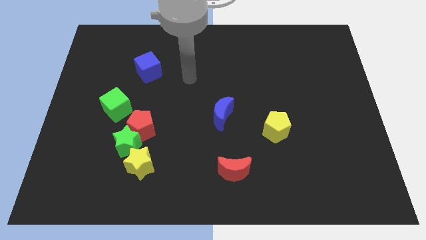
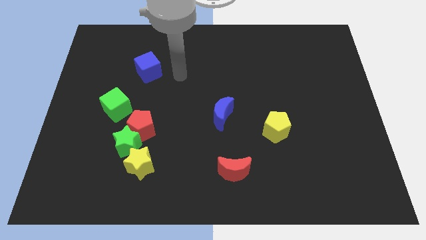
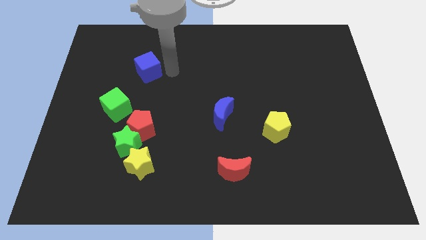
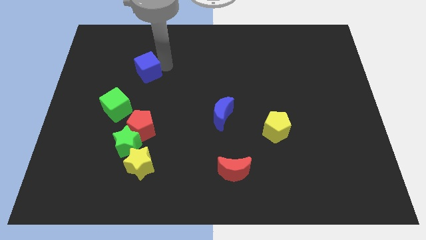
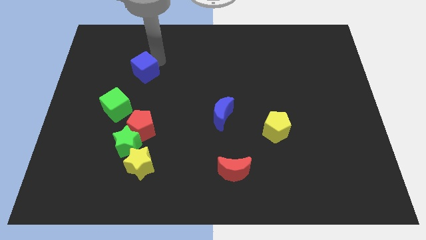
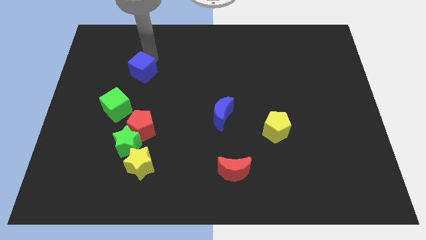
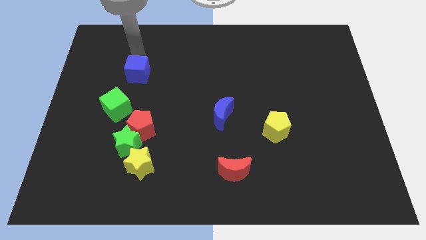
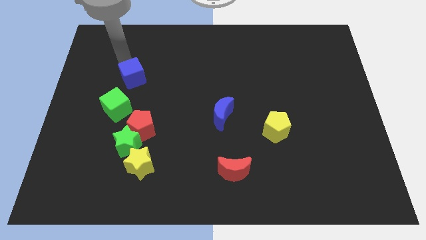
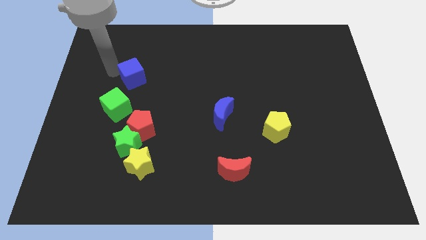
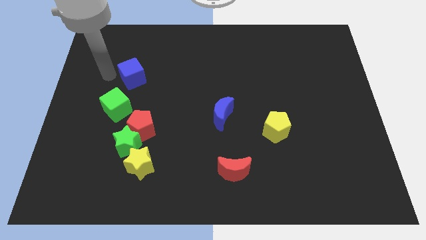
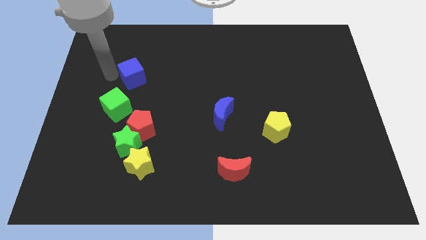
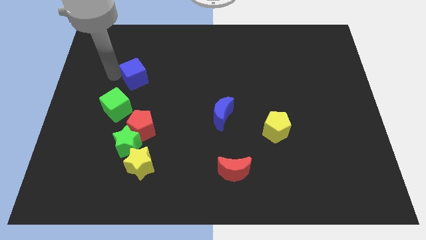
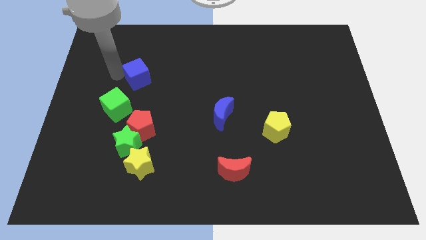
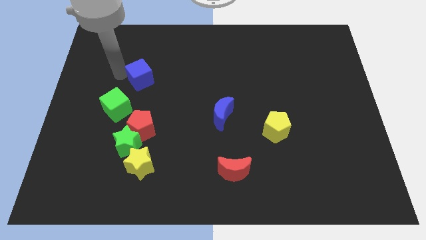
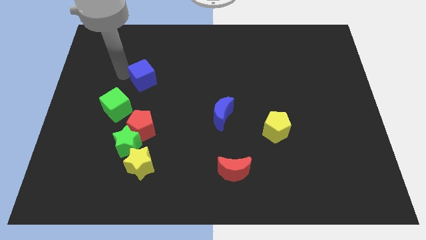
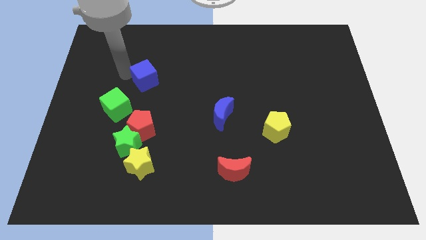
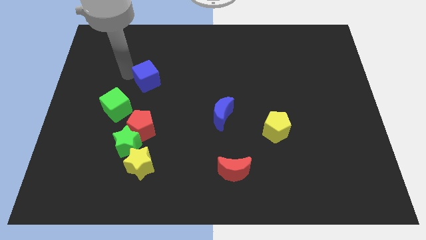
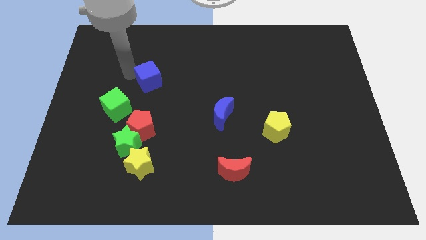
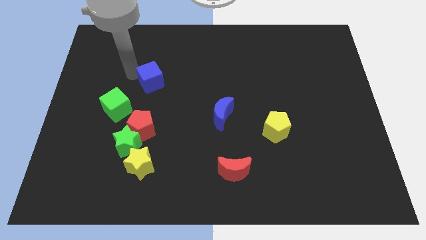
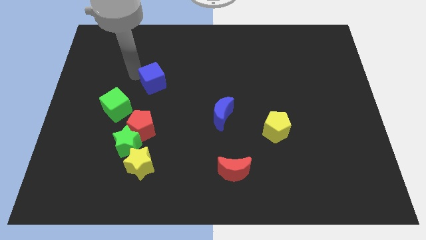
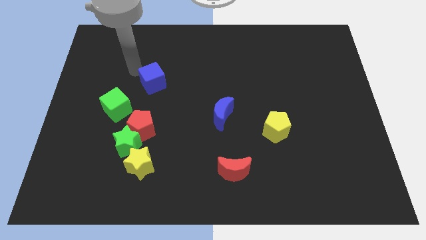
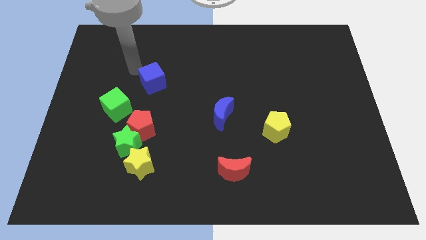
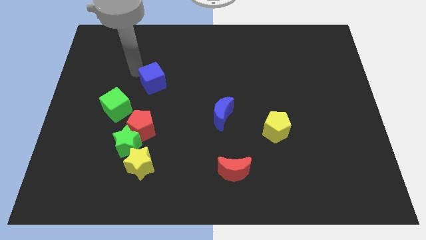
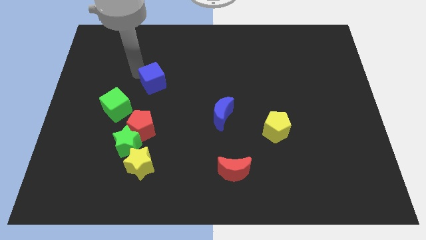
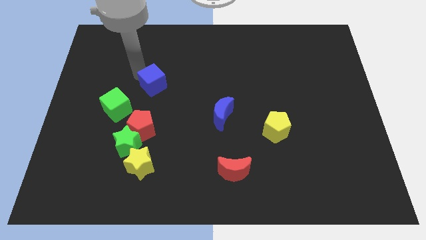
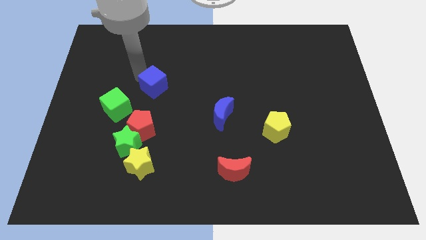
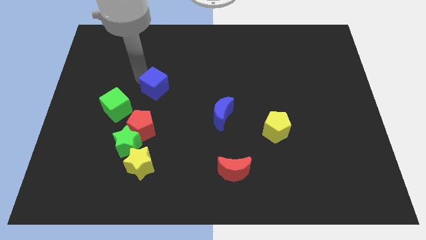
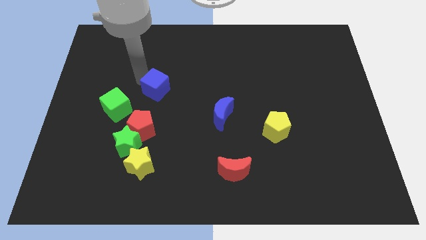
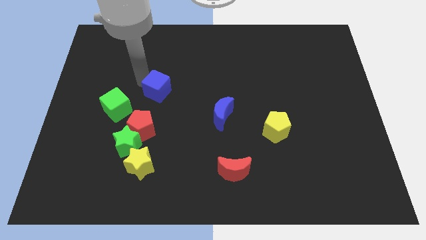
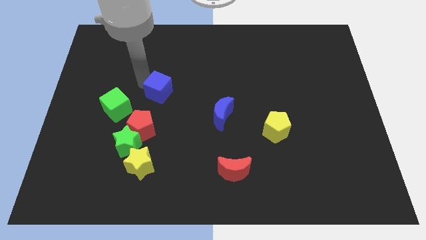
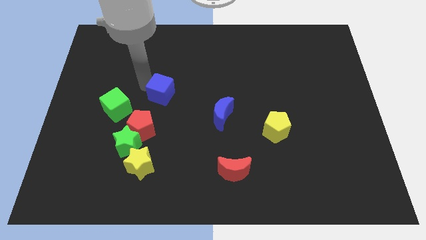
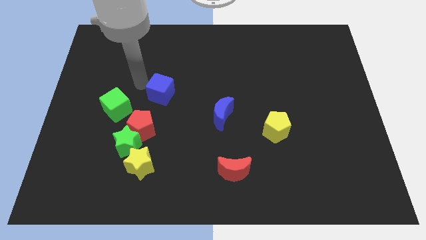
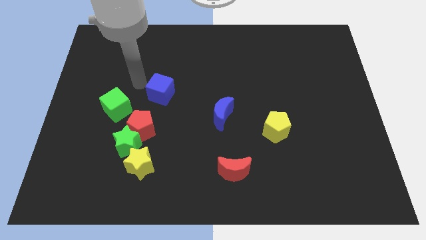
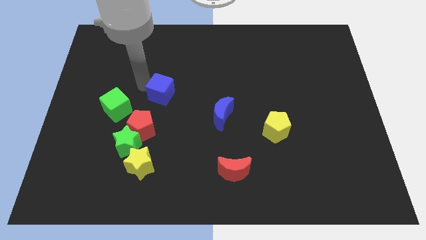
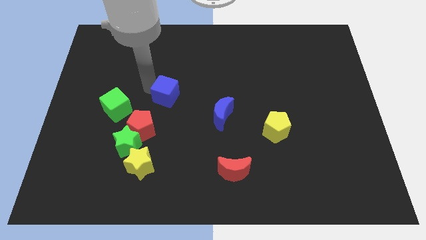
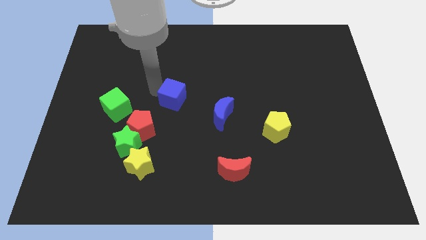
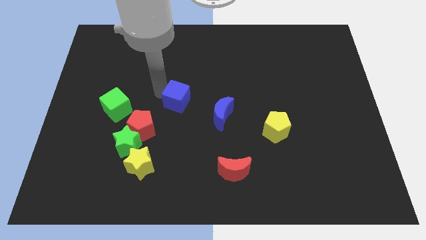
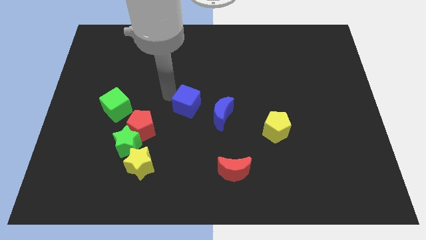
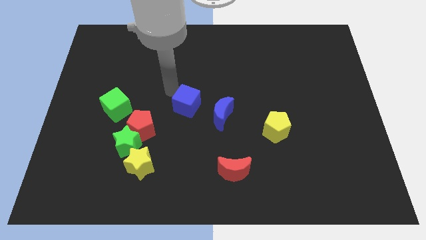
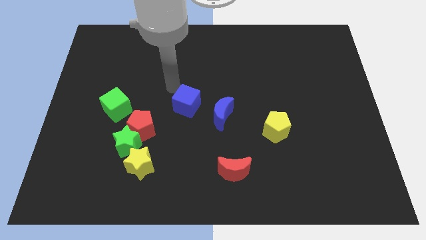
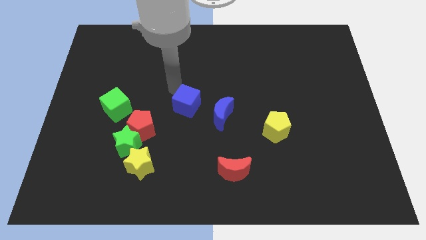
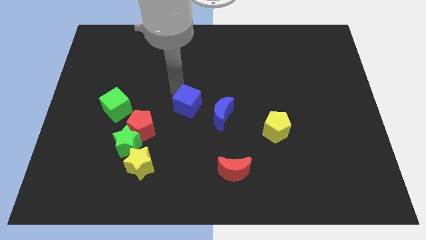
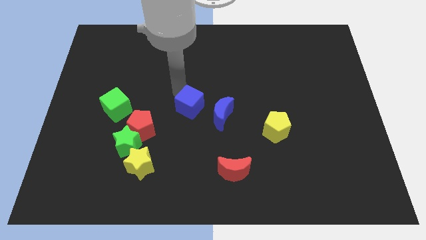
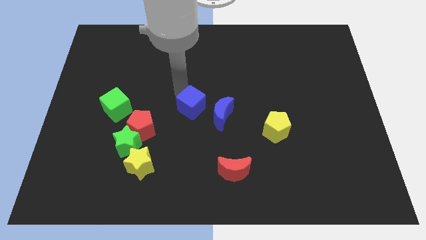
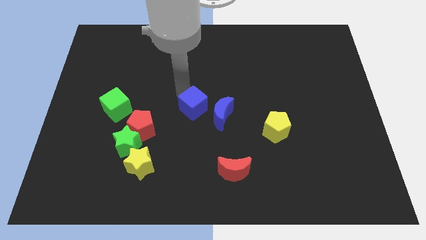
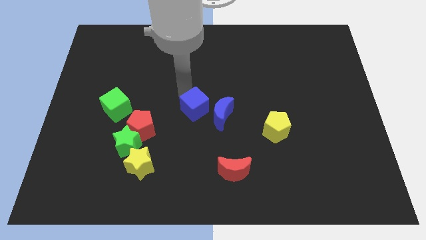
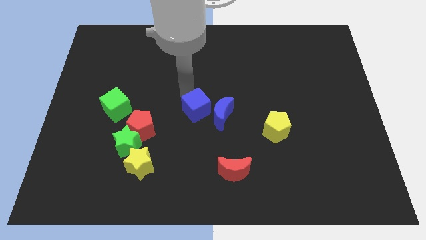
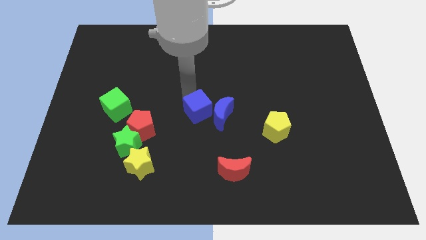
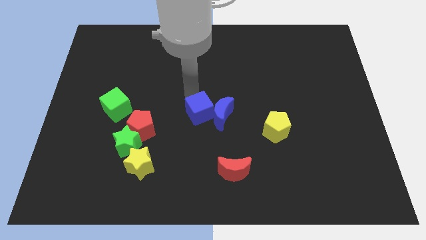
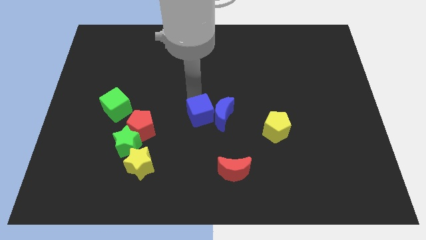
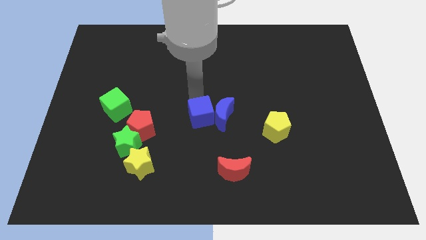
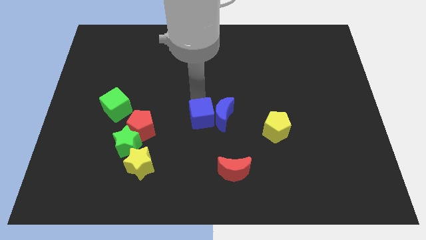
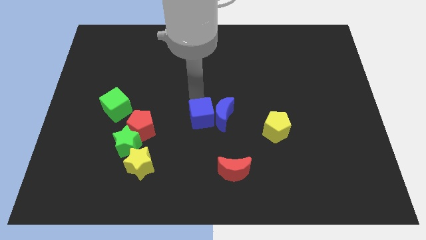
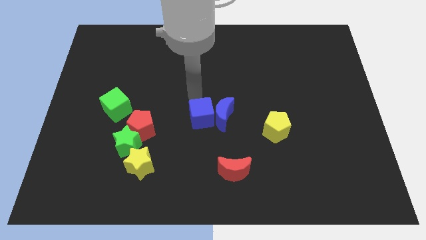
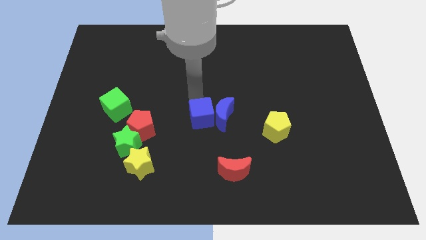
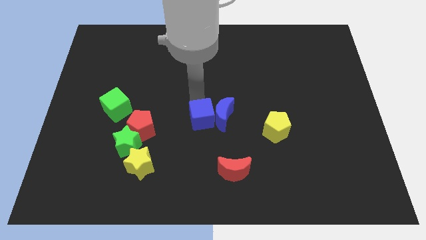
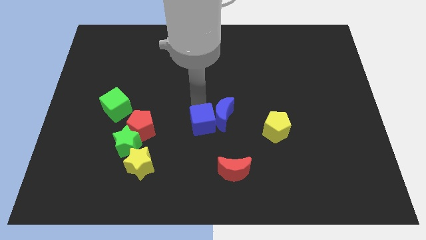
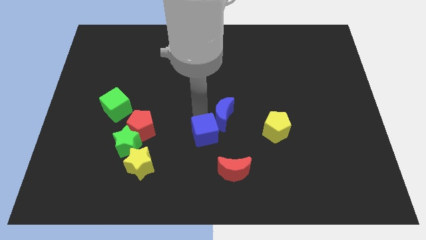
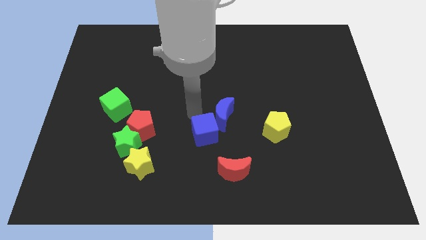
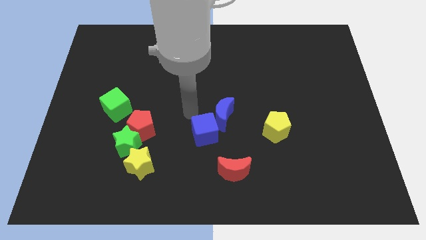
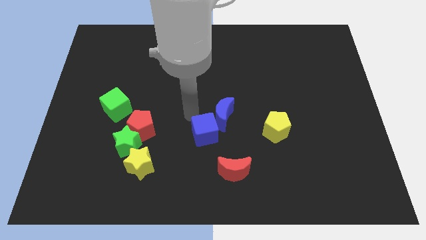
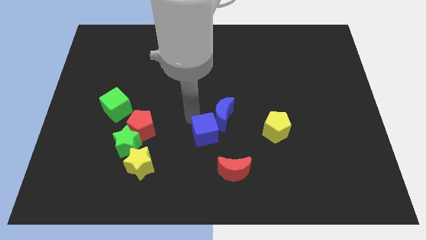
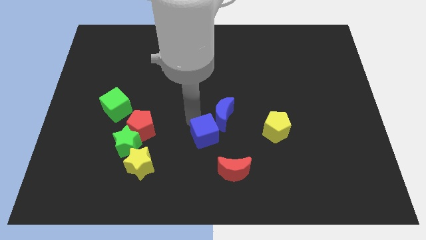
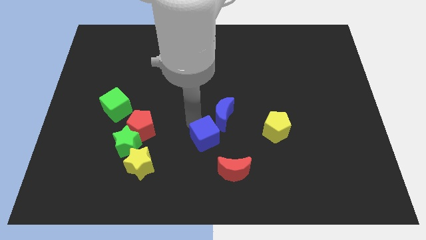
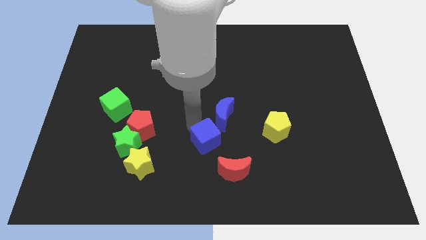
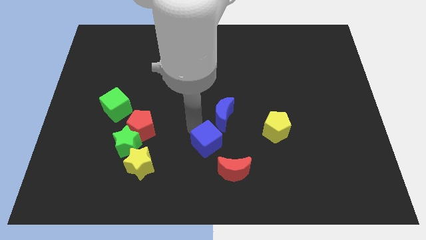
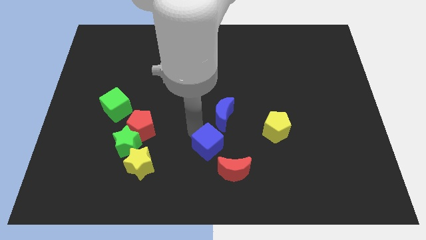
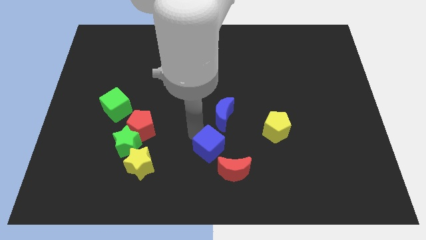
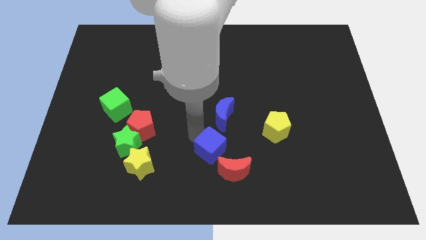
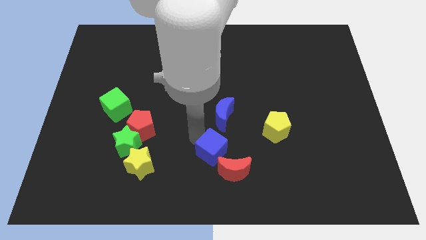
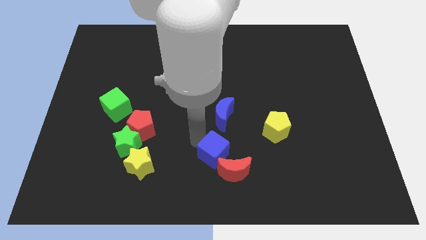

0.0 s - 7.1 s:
push the blue cube next to the red moon
